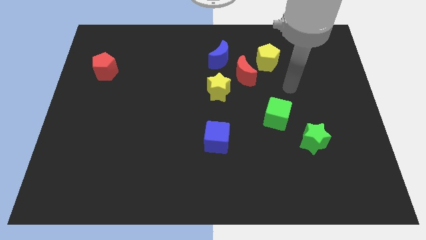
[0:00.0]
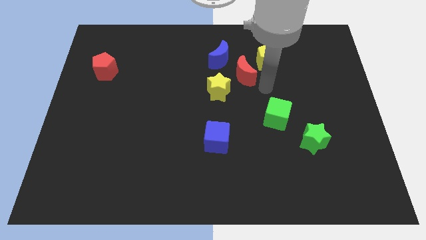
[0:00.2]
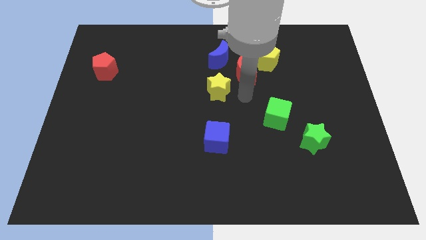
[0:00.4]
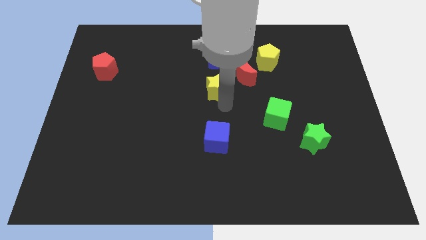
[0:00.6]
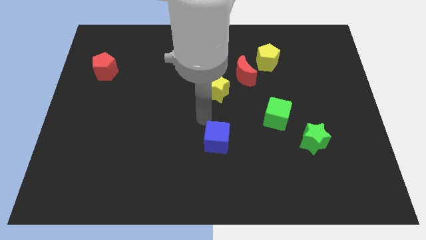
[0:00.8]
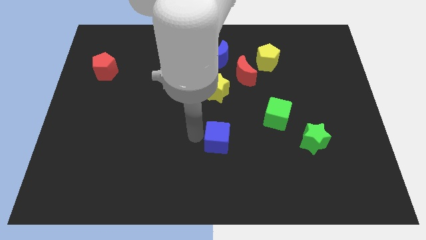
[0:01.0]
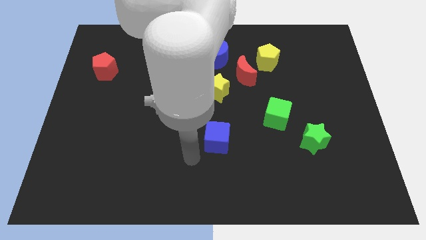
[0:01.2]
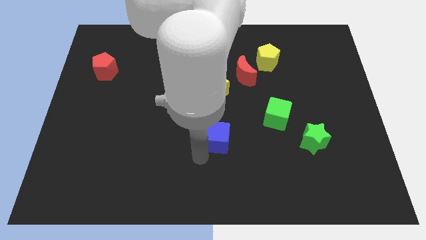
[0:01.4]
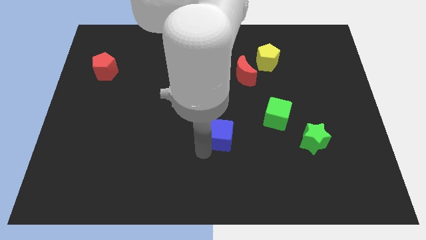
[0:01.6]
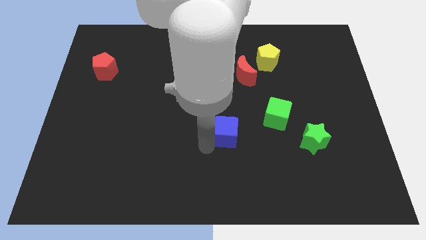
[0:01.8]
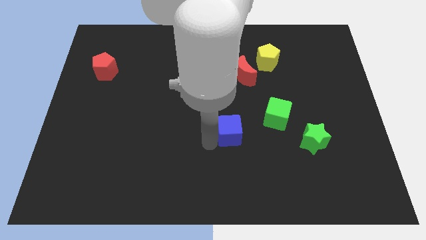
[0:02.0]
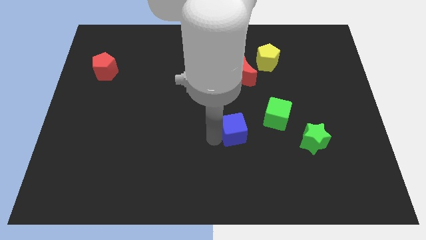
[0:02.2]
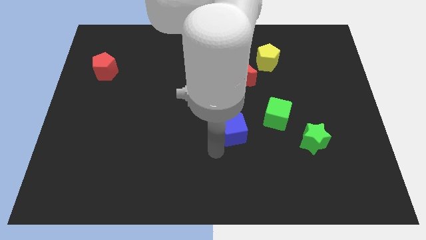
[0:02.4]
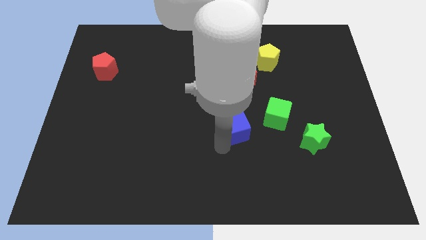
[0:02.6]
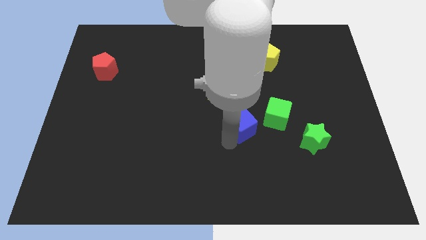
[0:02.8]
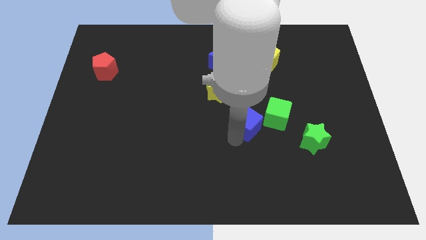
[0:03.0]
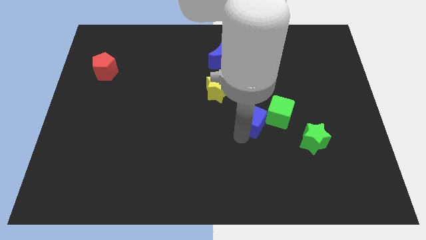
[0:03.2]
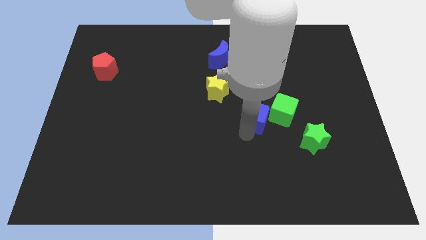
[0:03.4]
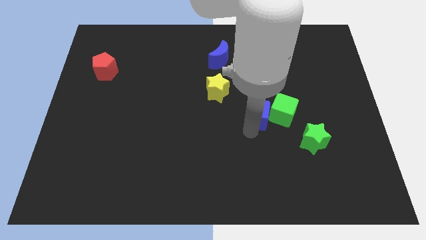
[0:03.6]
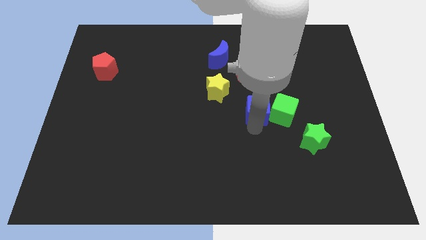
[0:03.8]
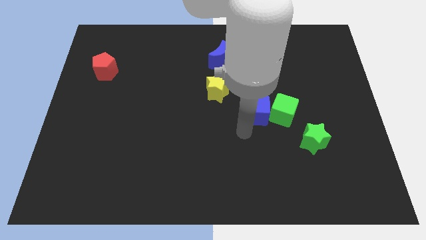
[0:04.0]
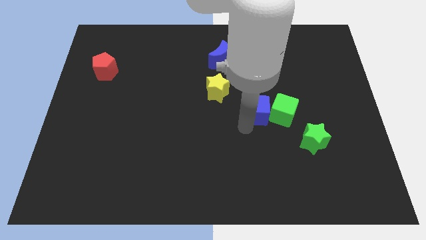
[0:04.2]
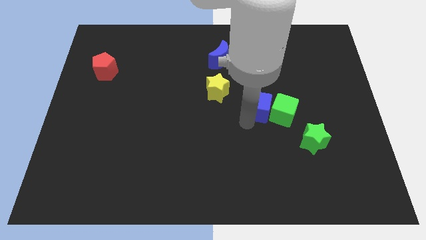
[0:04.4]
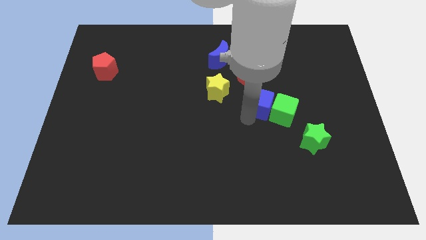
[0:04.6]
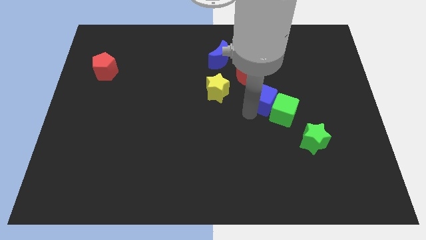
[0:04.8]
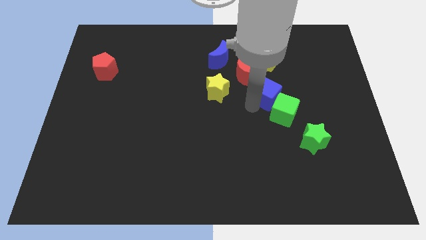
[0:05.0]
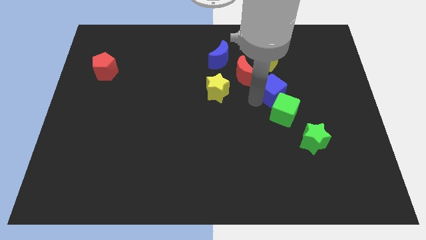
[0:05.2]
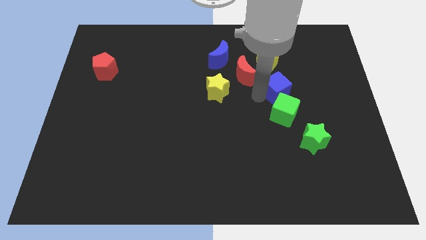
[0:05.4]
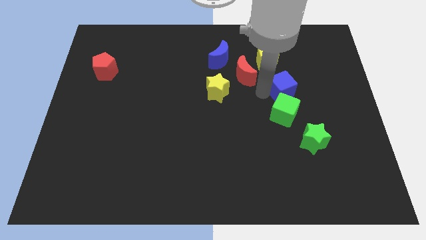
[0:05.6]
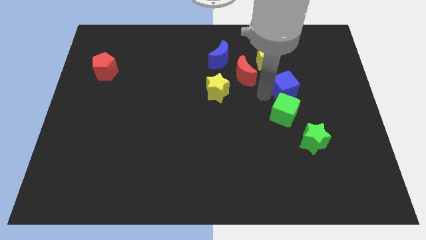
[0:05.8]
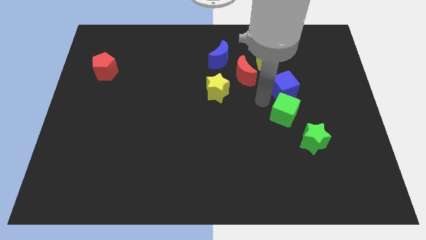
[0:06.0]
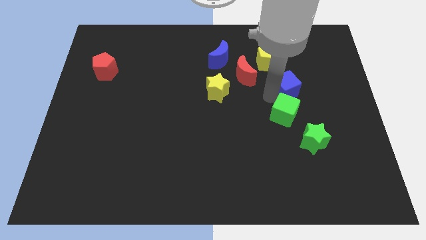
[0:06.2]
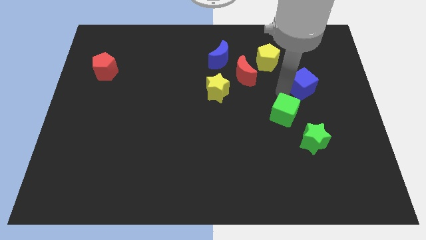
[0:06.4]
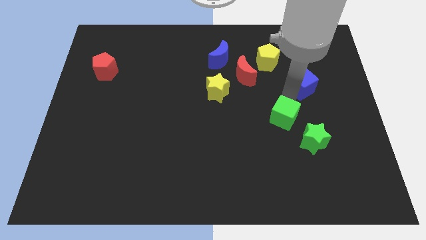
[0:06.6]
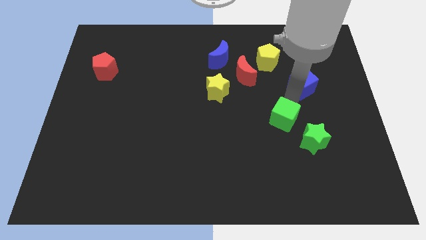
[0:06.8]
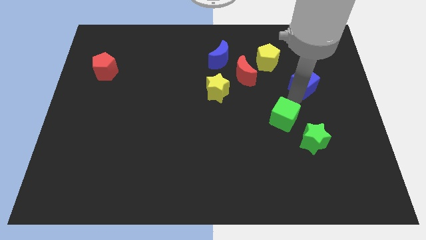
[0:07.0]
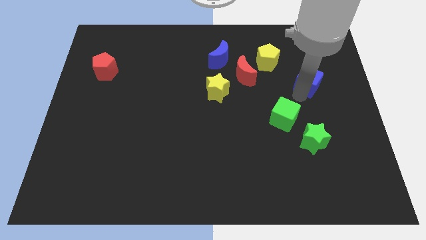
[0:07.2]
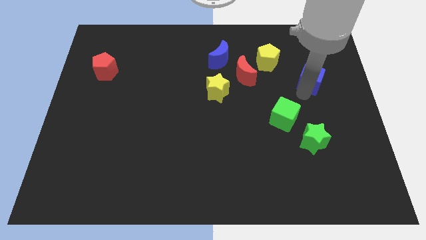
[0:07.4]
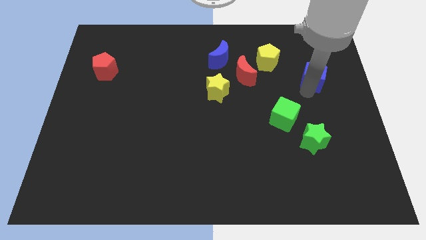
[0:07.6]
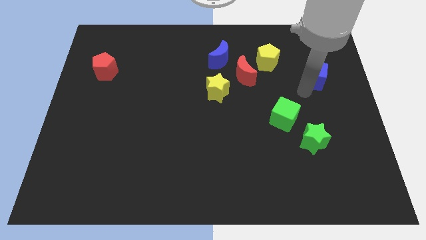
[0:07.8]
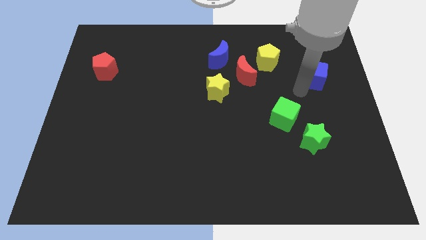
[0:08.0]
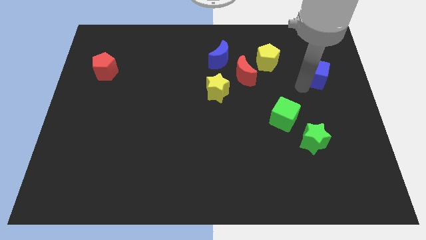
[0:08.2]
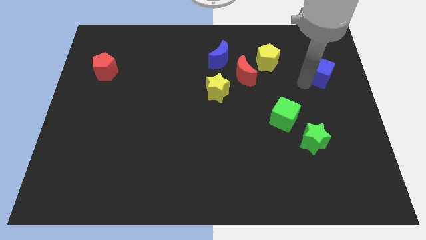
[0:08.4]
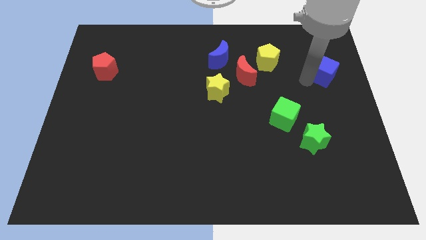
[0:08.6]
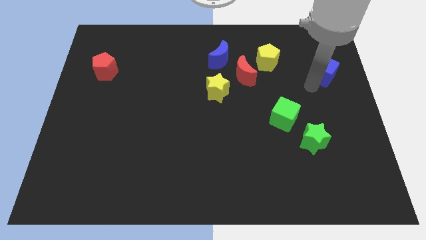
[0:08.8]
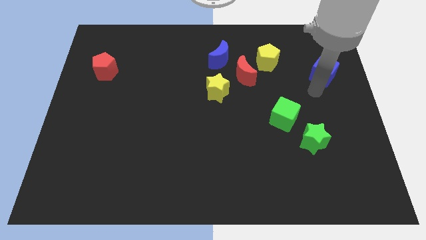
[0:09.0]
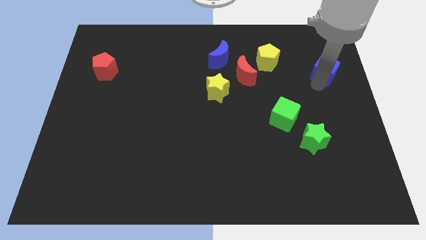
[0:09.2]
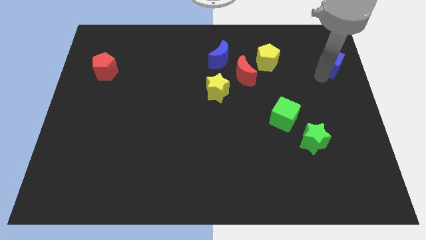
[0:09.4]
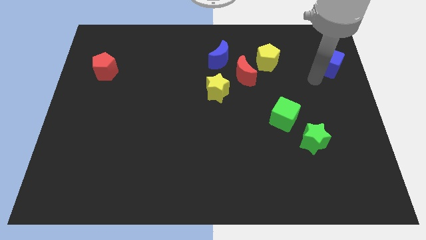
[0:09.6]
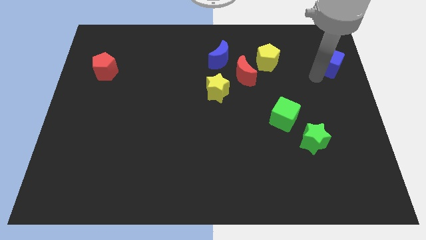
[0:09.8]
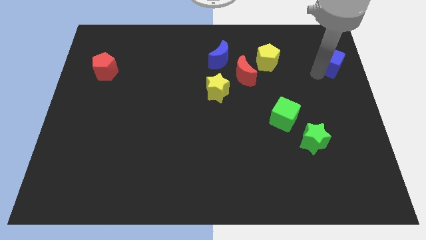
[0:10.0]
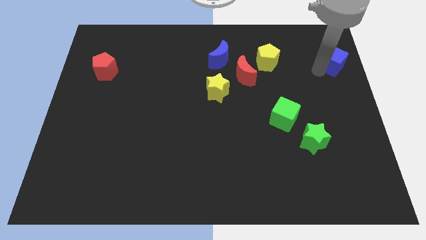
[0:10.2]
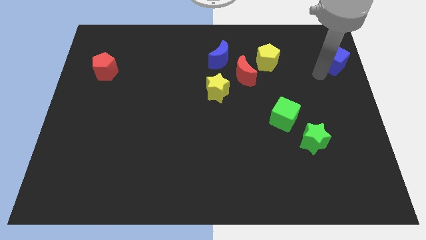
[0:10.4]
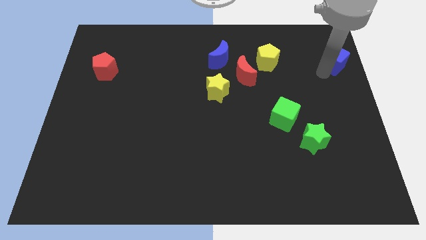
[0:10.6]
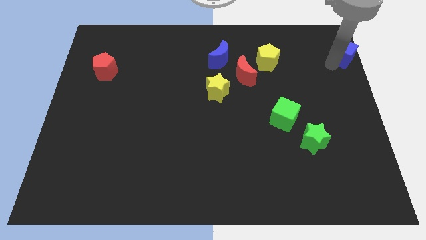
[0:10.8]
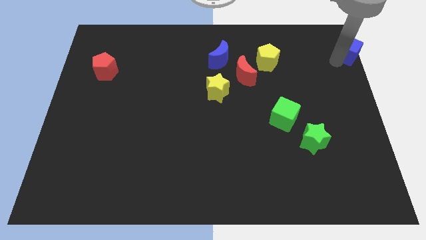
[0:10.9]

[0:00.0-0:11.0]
put the blue cube to the top right

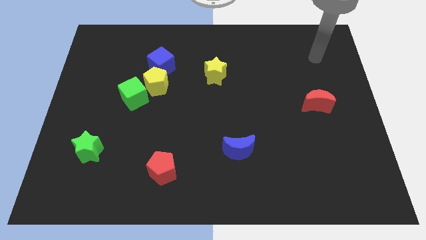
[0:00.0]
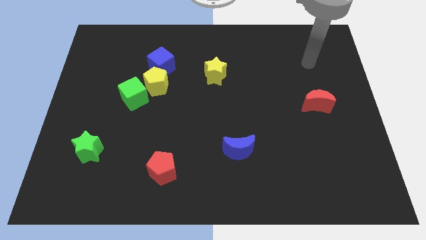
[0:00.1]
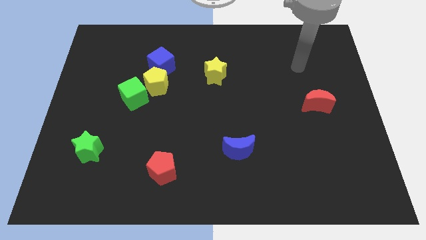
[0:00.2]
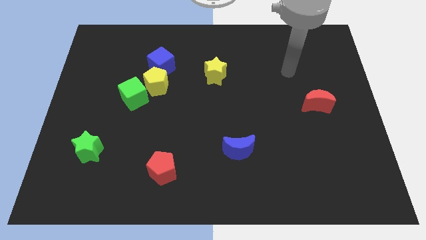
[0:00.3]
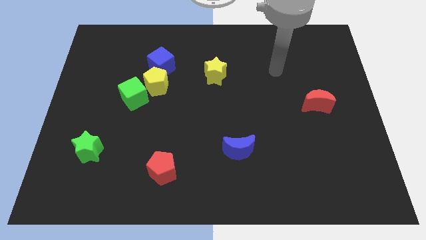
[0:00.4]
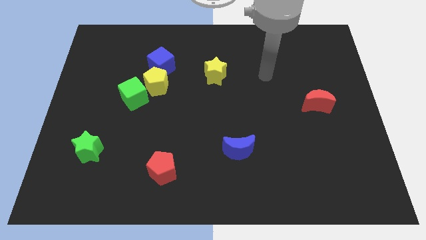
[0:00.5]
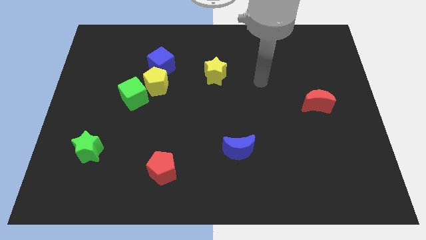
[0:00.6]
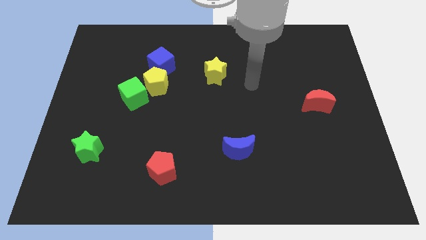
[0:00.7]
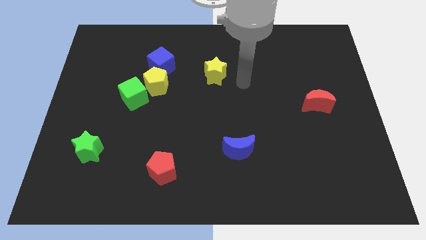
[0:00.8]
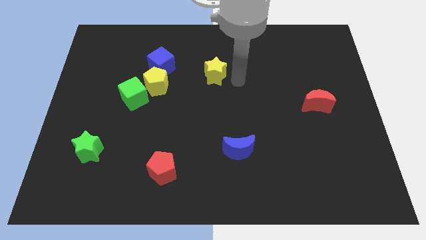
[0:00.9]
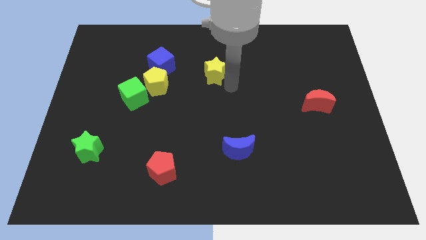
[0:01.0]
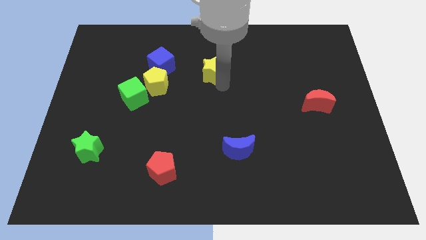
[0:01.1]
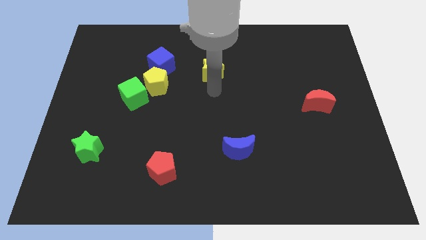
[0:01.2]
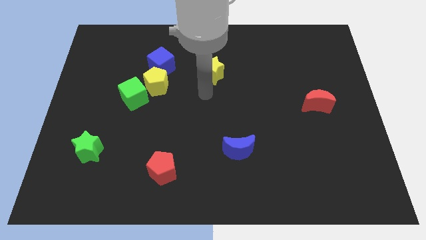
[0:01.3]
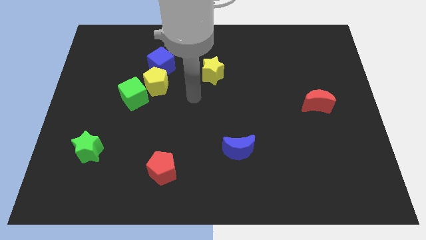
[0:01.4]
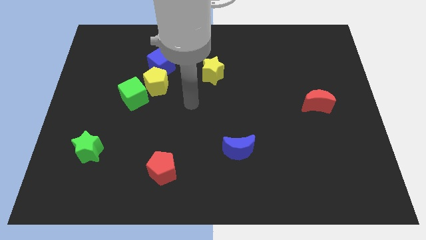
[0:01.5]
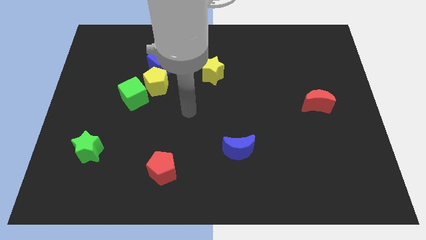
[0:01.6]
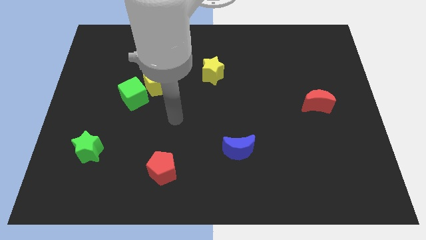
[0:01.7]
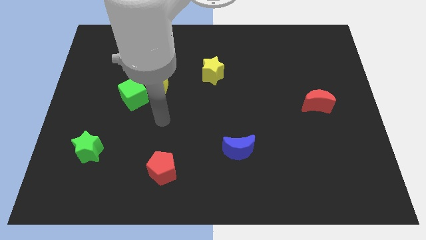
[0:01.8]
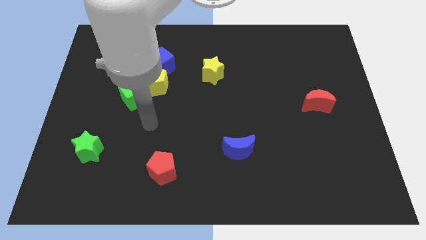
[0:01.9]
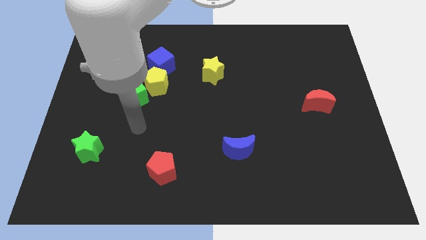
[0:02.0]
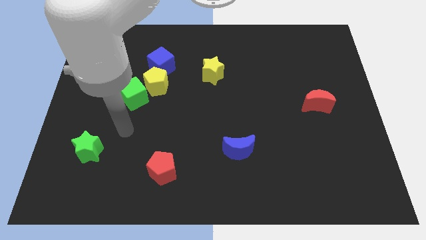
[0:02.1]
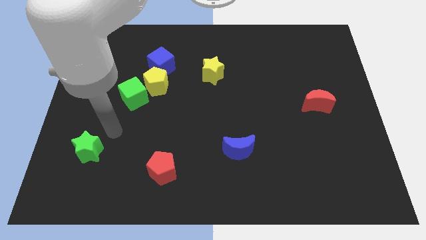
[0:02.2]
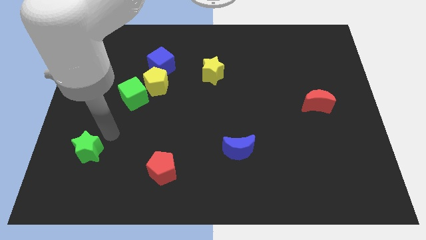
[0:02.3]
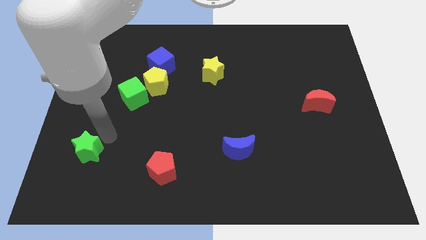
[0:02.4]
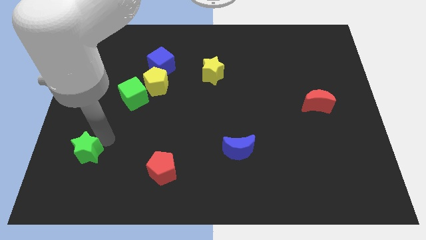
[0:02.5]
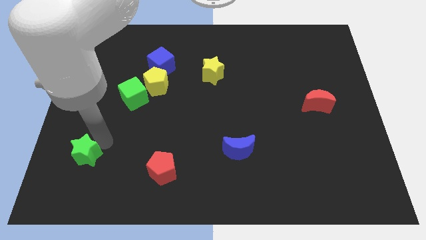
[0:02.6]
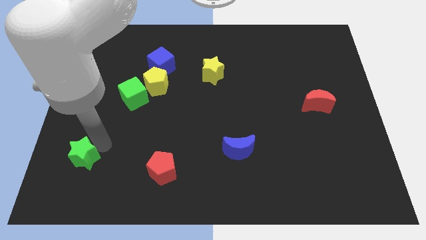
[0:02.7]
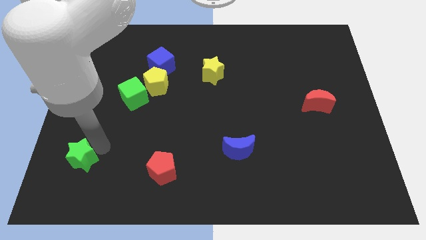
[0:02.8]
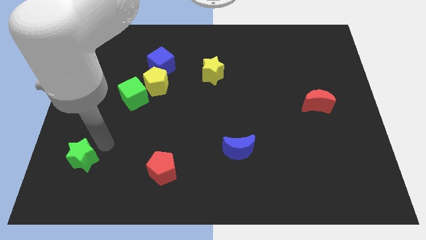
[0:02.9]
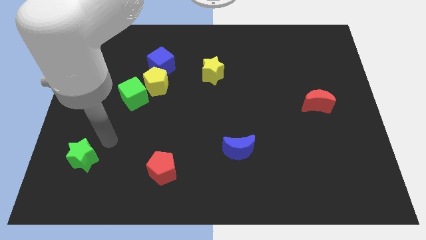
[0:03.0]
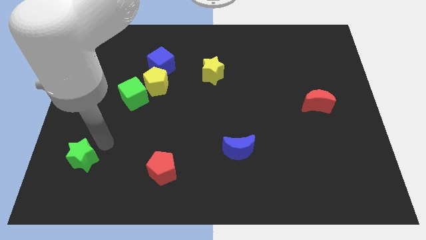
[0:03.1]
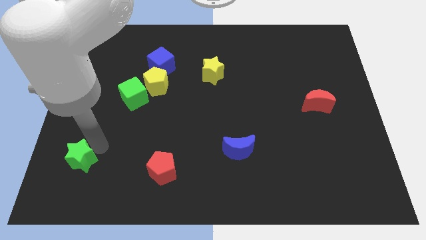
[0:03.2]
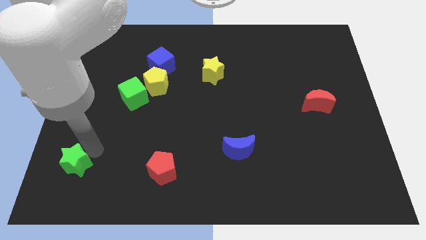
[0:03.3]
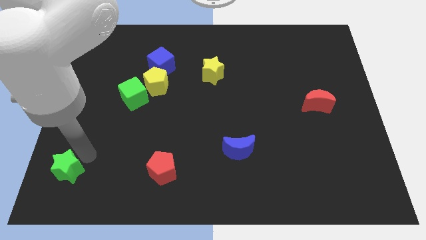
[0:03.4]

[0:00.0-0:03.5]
slide the green star to the bottom left of the board
